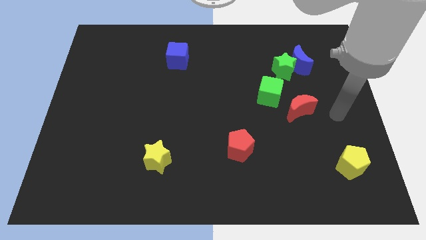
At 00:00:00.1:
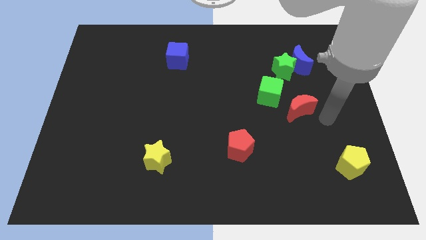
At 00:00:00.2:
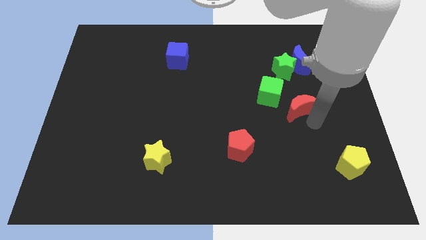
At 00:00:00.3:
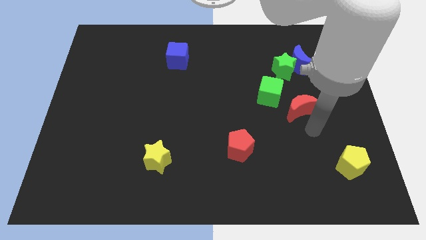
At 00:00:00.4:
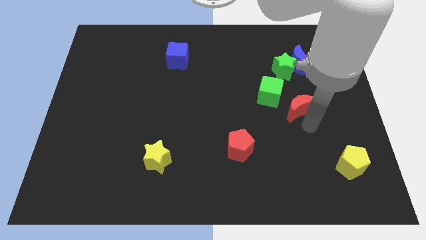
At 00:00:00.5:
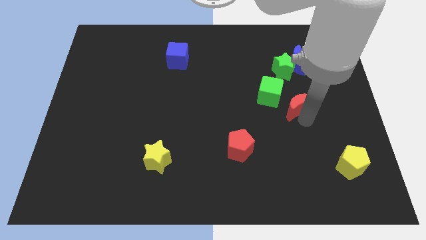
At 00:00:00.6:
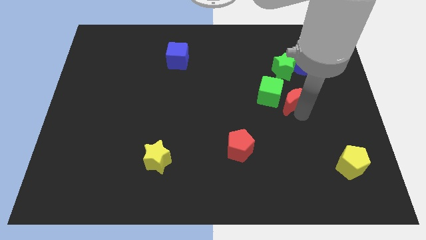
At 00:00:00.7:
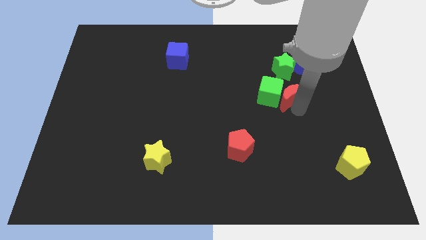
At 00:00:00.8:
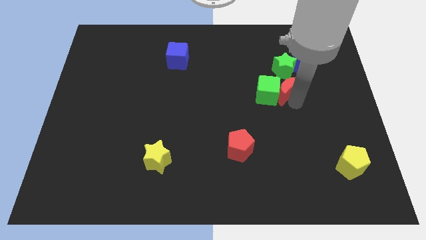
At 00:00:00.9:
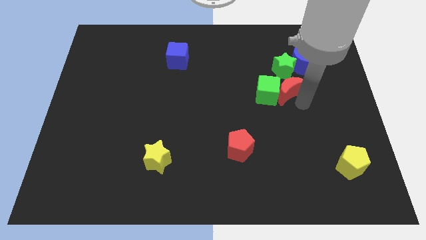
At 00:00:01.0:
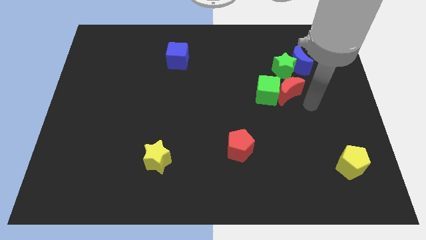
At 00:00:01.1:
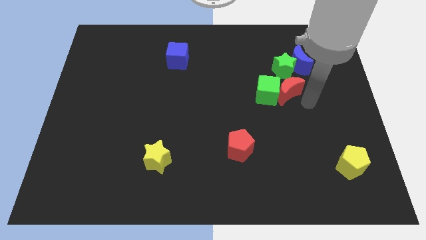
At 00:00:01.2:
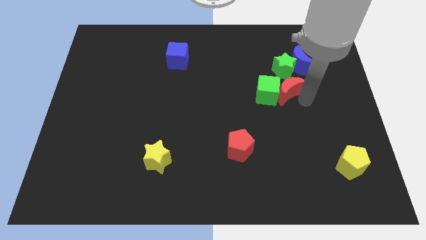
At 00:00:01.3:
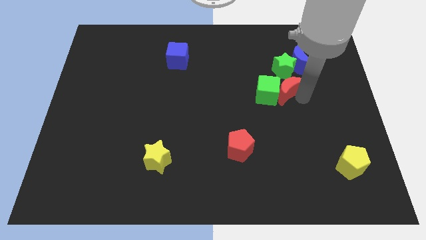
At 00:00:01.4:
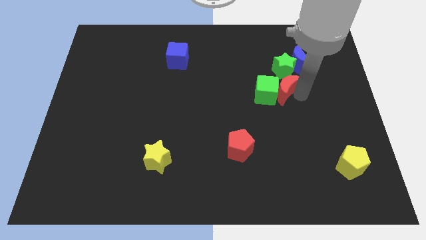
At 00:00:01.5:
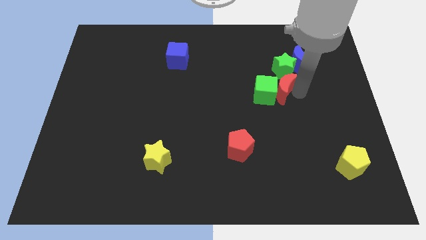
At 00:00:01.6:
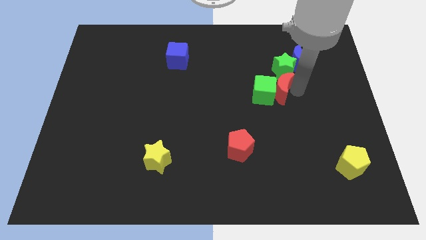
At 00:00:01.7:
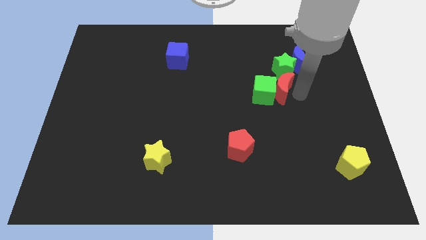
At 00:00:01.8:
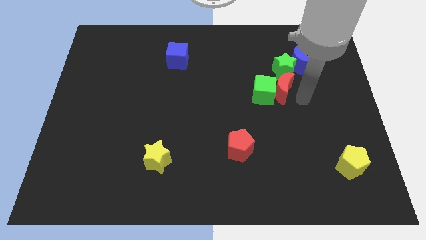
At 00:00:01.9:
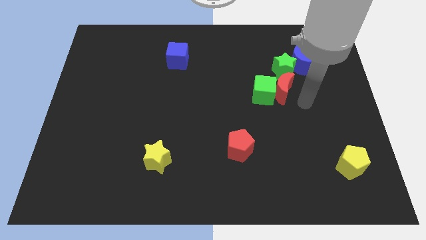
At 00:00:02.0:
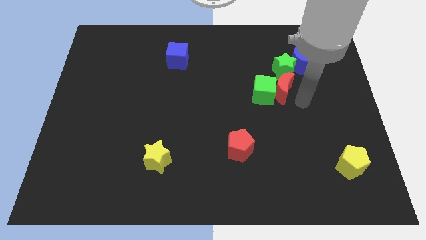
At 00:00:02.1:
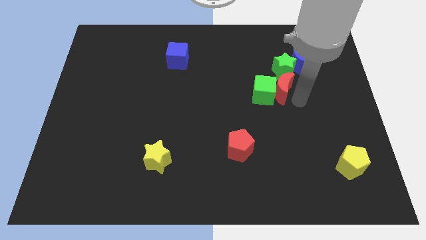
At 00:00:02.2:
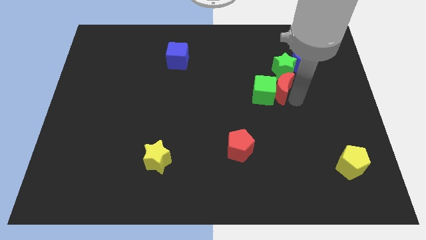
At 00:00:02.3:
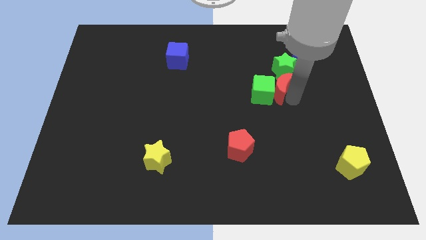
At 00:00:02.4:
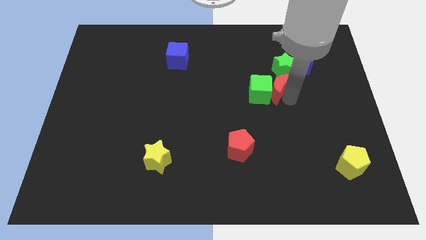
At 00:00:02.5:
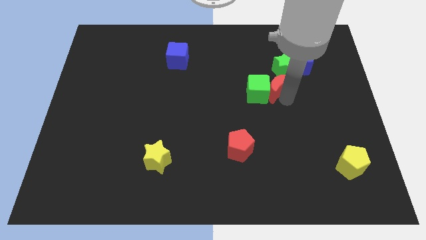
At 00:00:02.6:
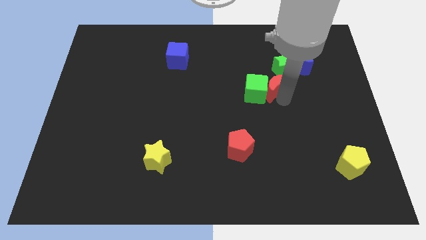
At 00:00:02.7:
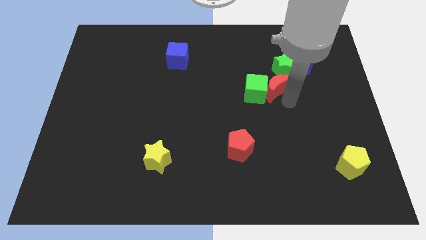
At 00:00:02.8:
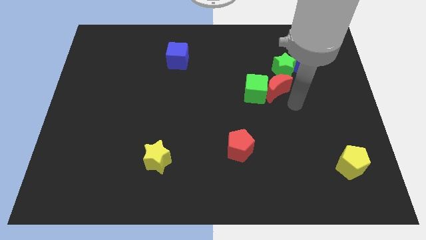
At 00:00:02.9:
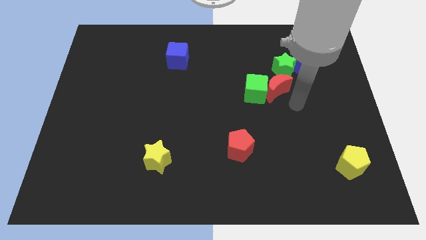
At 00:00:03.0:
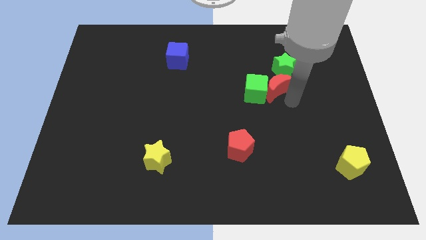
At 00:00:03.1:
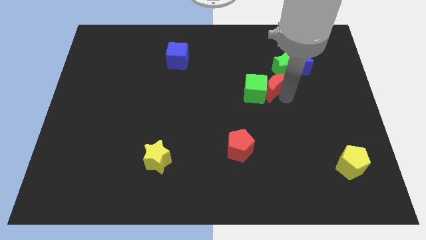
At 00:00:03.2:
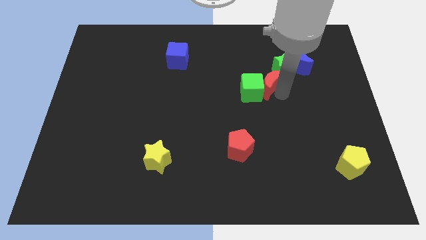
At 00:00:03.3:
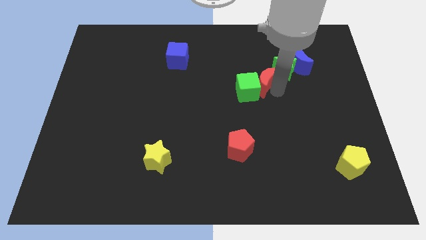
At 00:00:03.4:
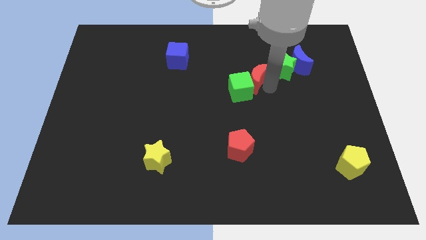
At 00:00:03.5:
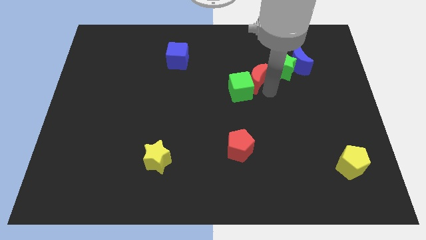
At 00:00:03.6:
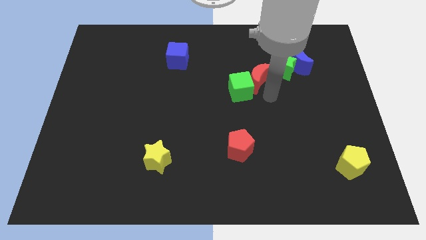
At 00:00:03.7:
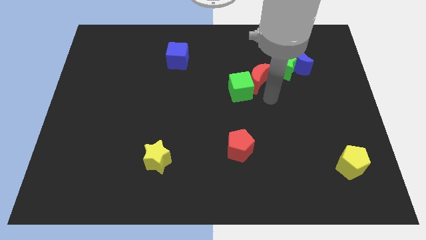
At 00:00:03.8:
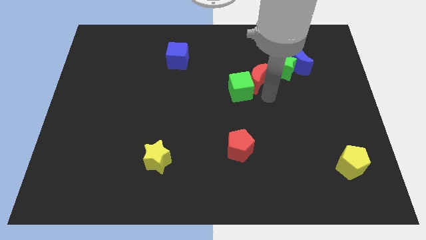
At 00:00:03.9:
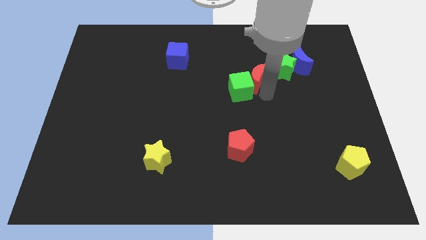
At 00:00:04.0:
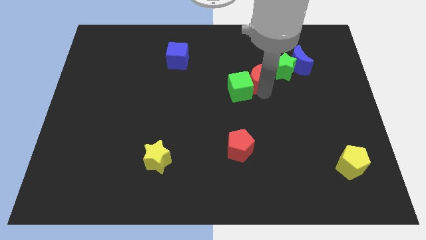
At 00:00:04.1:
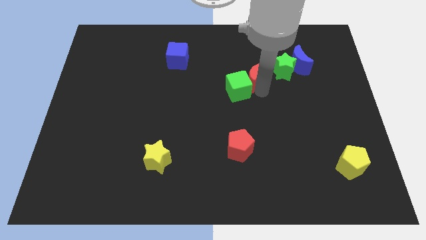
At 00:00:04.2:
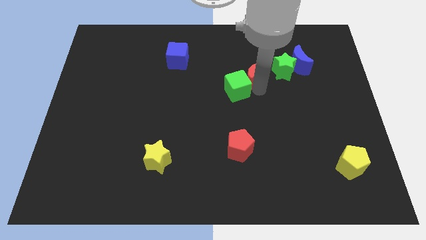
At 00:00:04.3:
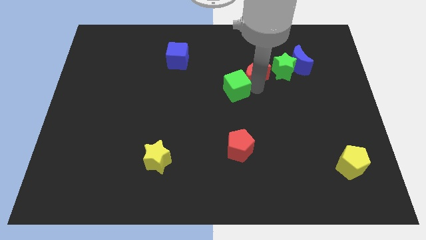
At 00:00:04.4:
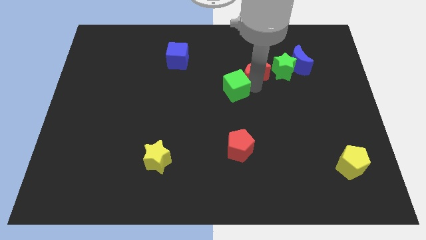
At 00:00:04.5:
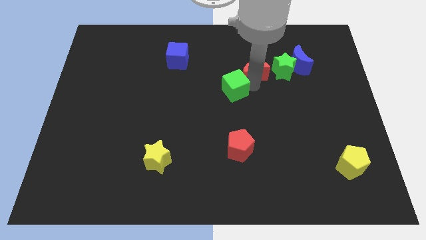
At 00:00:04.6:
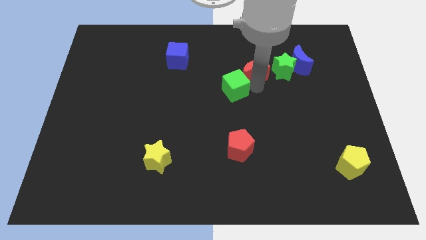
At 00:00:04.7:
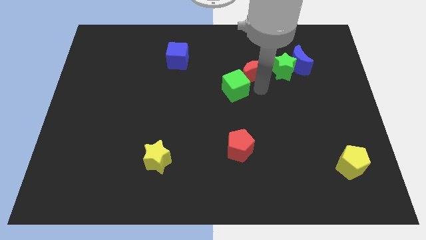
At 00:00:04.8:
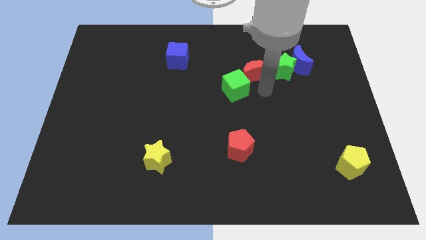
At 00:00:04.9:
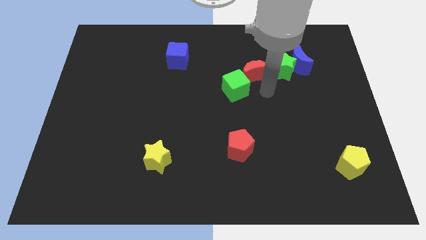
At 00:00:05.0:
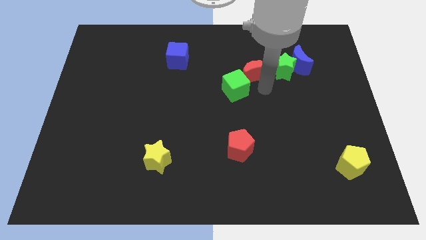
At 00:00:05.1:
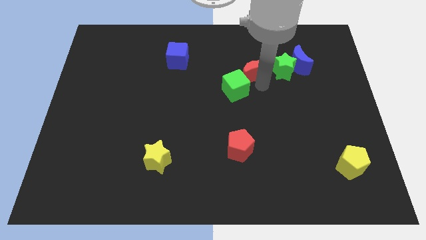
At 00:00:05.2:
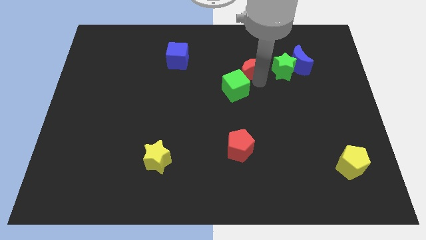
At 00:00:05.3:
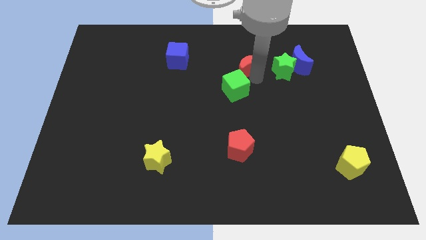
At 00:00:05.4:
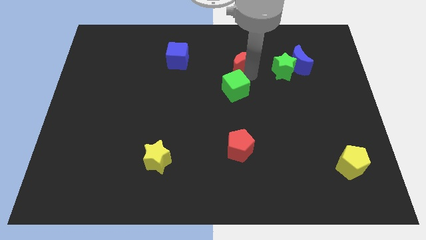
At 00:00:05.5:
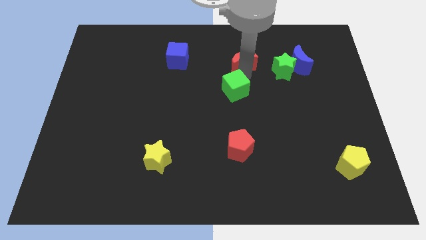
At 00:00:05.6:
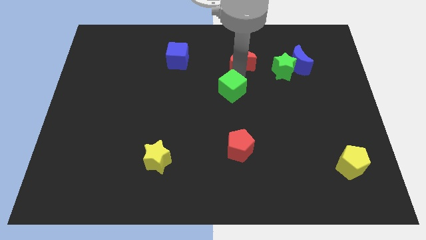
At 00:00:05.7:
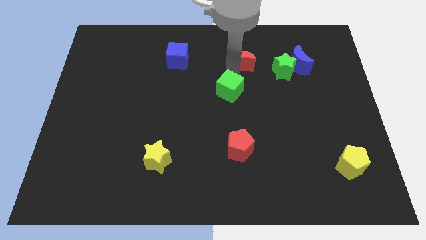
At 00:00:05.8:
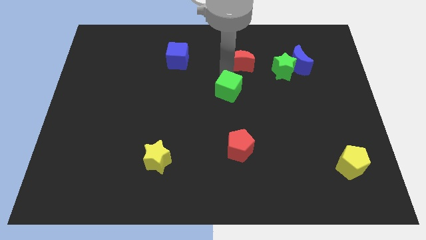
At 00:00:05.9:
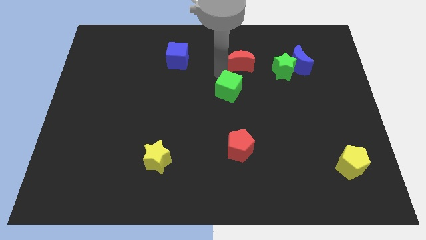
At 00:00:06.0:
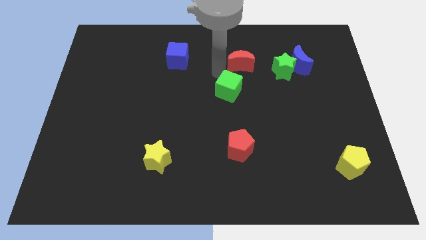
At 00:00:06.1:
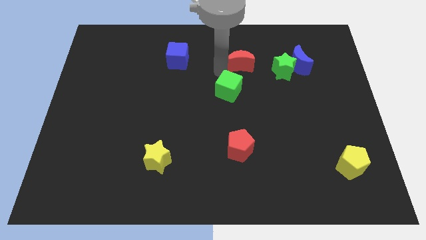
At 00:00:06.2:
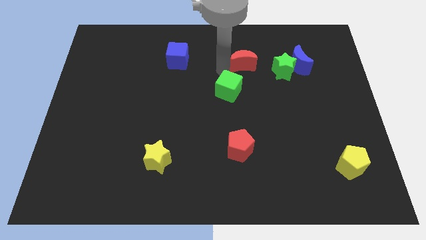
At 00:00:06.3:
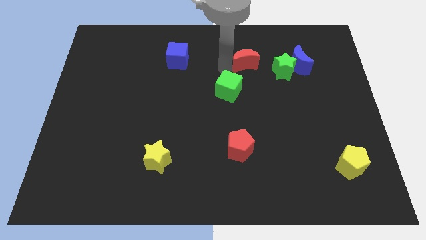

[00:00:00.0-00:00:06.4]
put the red moon diagonally up and to the left of the green star

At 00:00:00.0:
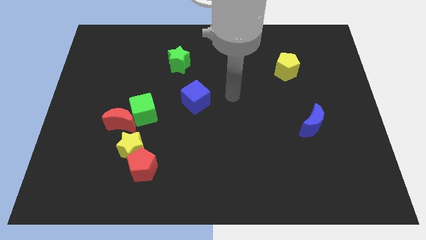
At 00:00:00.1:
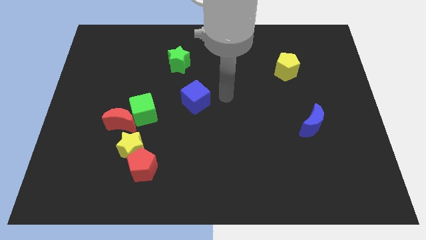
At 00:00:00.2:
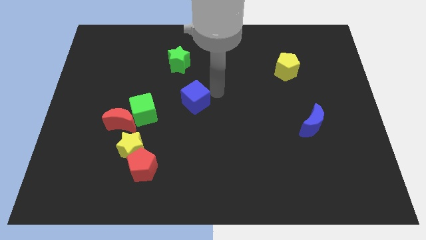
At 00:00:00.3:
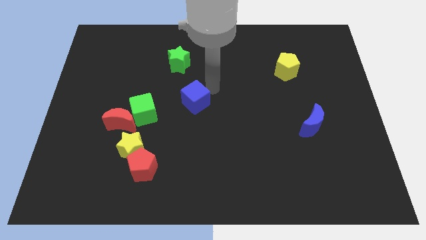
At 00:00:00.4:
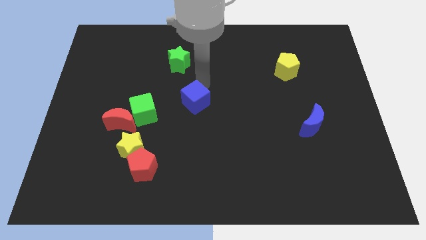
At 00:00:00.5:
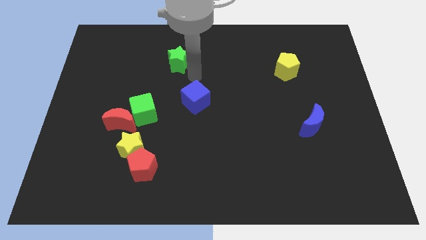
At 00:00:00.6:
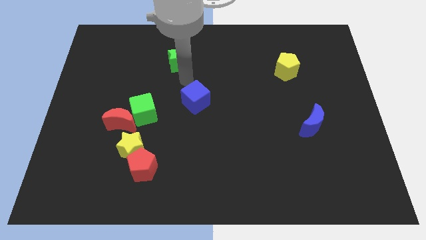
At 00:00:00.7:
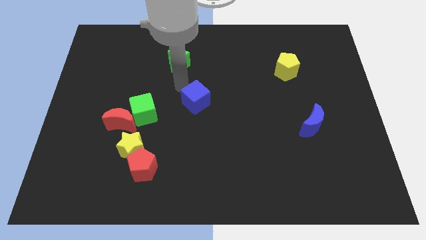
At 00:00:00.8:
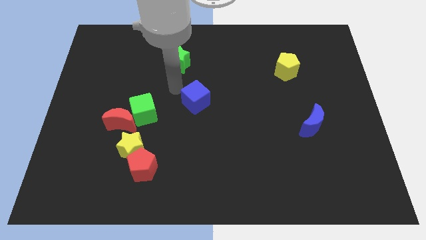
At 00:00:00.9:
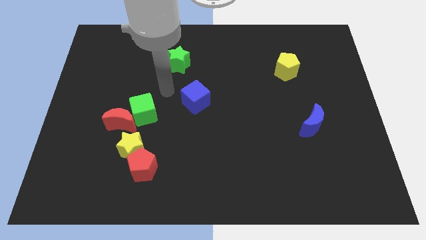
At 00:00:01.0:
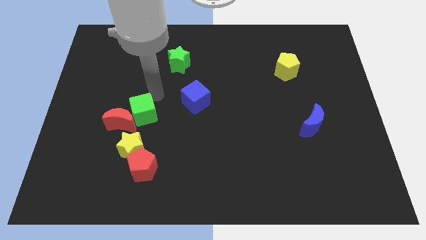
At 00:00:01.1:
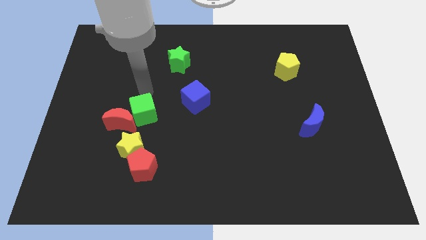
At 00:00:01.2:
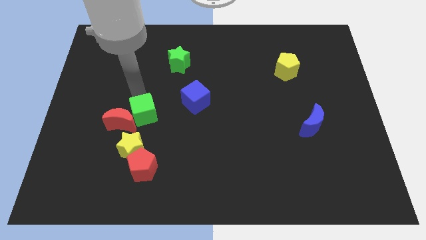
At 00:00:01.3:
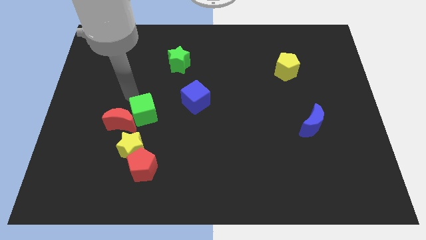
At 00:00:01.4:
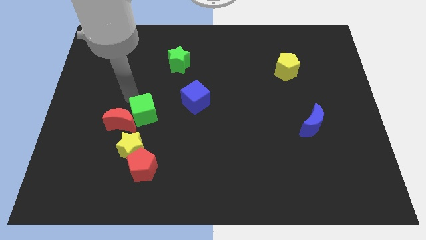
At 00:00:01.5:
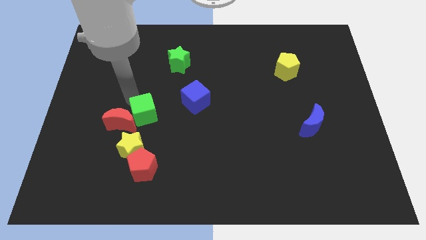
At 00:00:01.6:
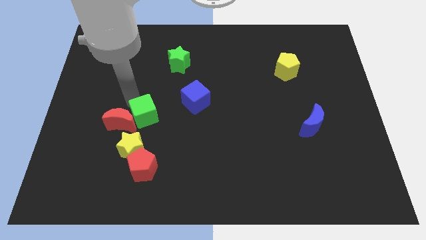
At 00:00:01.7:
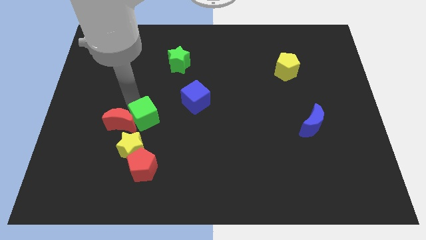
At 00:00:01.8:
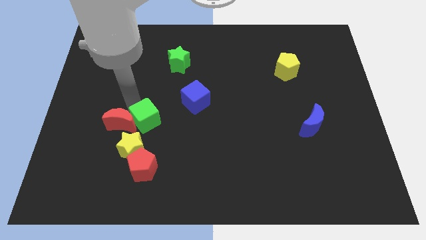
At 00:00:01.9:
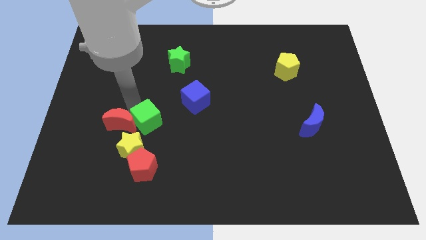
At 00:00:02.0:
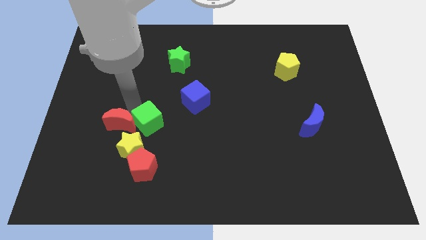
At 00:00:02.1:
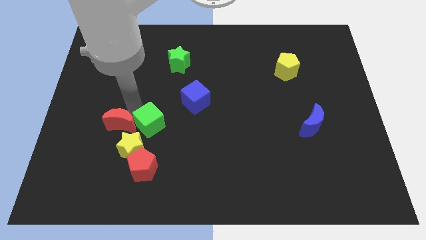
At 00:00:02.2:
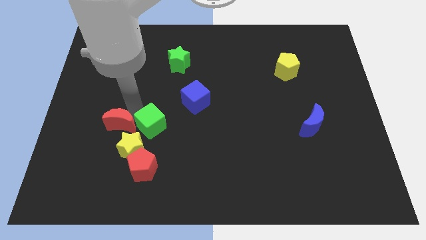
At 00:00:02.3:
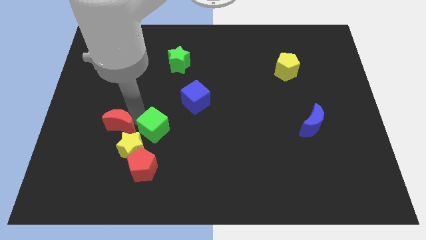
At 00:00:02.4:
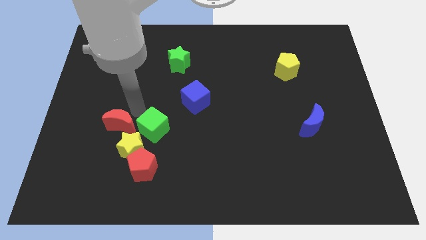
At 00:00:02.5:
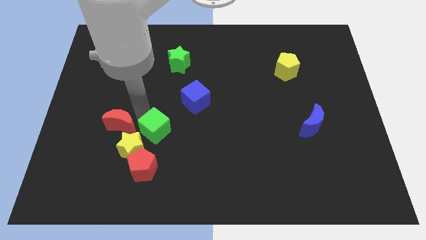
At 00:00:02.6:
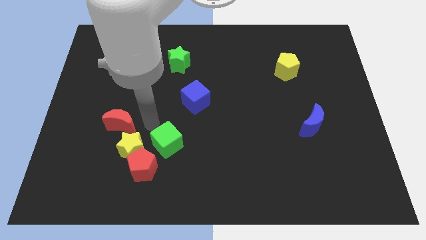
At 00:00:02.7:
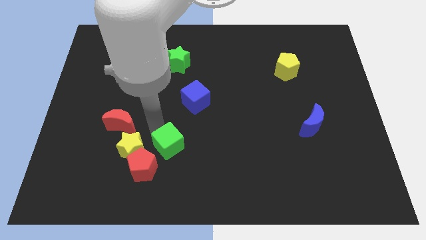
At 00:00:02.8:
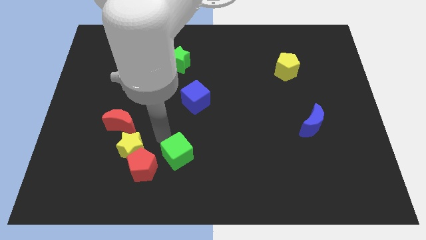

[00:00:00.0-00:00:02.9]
slide the green cube to the right of the red pentagon
